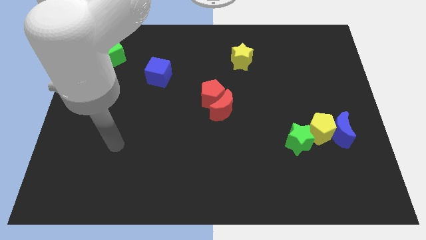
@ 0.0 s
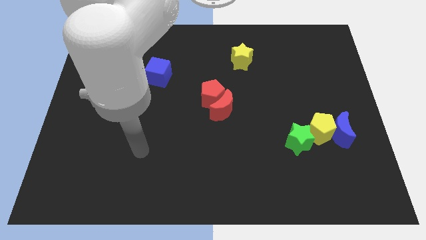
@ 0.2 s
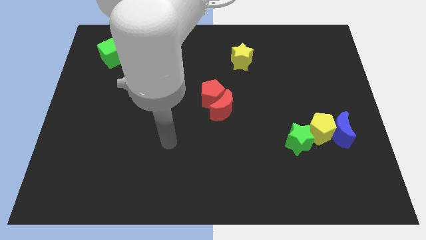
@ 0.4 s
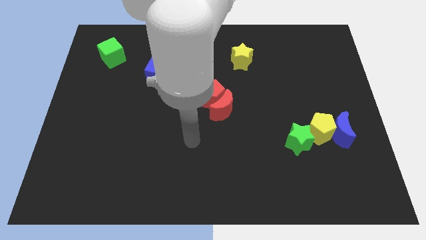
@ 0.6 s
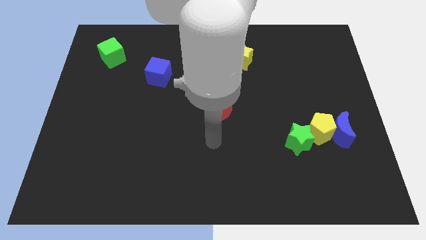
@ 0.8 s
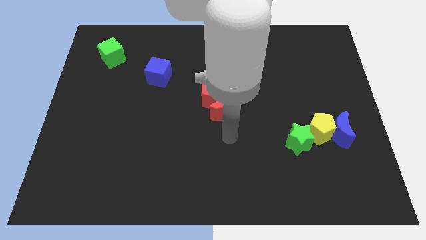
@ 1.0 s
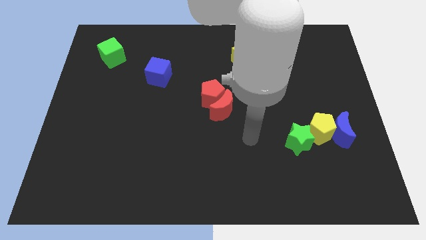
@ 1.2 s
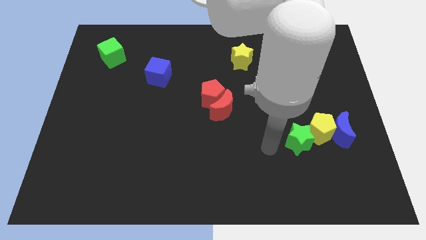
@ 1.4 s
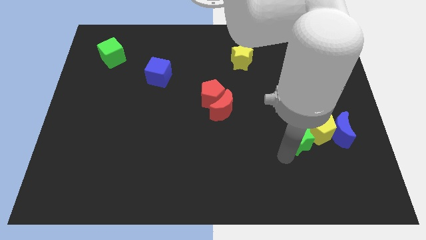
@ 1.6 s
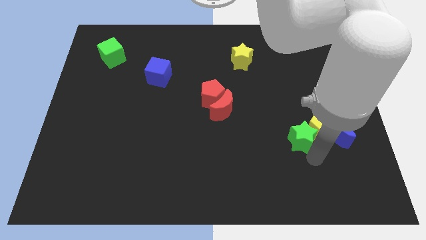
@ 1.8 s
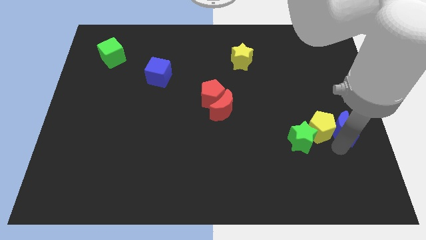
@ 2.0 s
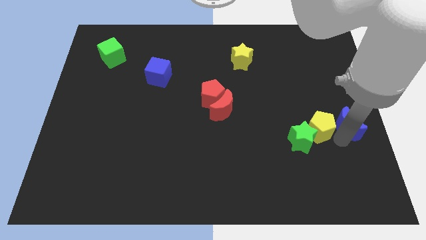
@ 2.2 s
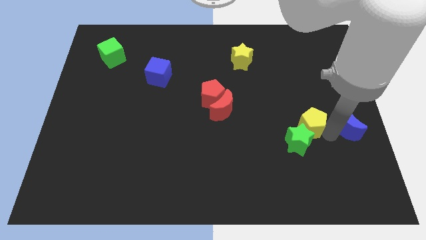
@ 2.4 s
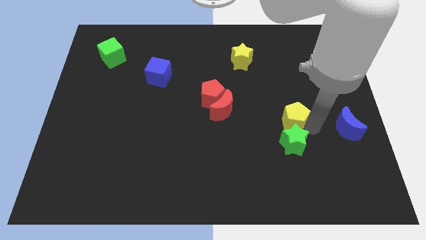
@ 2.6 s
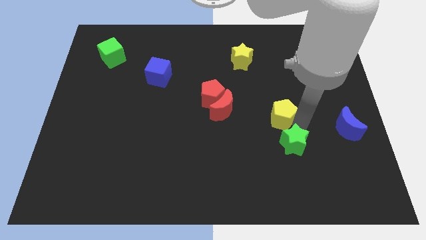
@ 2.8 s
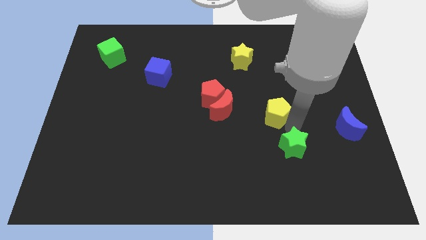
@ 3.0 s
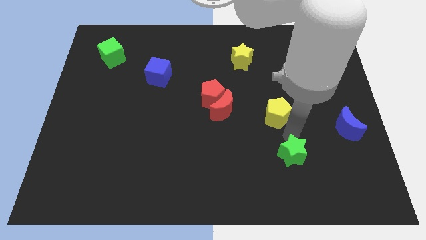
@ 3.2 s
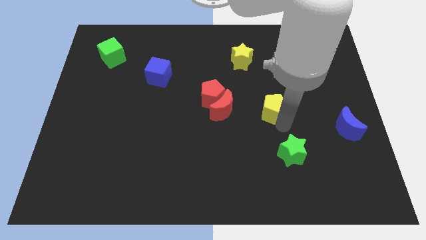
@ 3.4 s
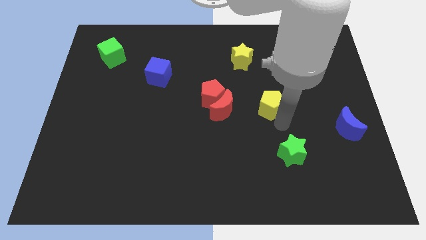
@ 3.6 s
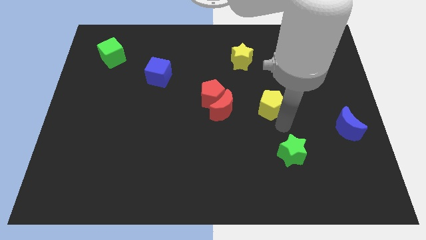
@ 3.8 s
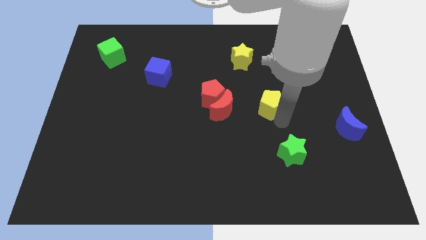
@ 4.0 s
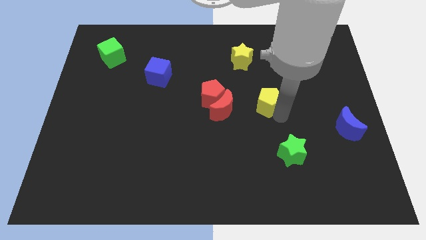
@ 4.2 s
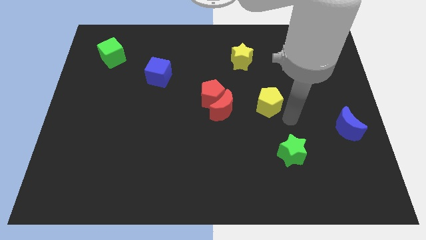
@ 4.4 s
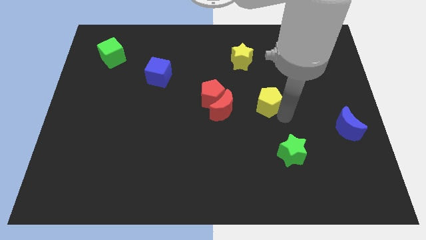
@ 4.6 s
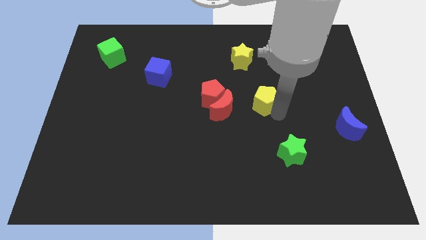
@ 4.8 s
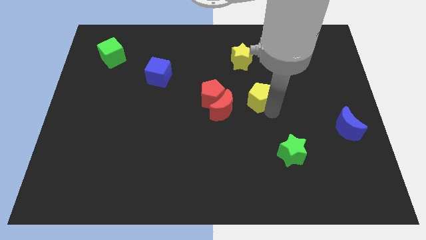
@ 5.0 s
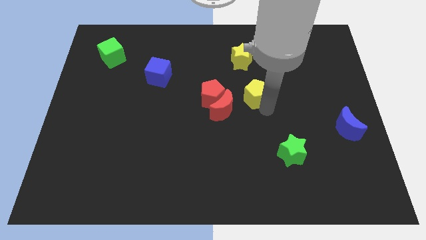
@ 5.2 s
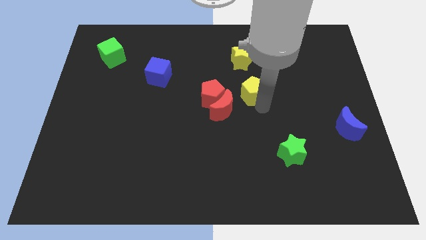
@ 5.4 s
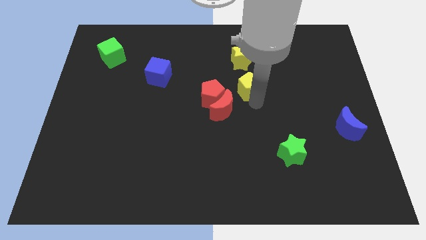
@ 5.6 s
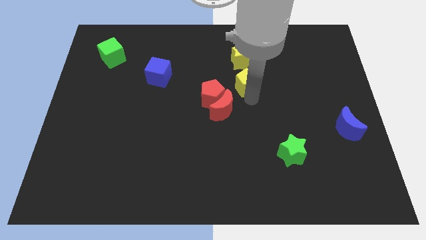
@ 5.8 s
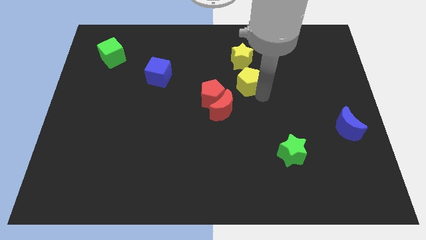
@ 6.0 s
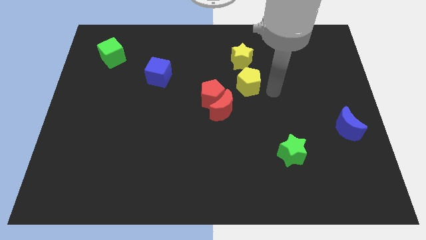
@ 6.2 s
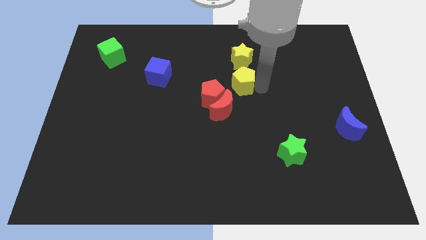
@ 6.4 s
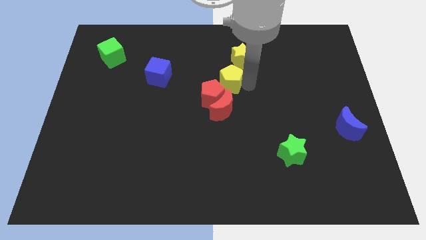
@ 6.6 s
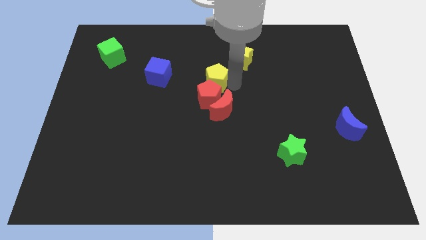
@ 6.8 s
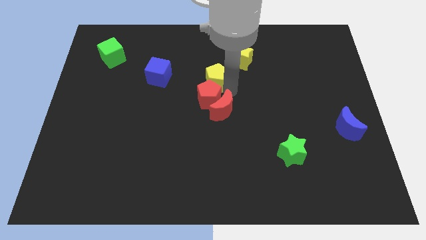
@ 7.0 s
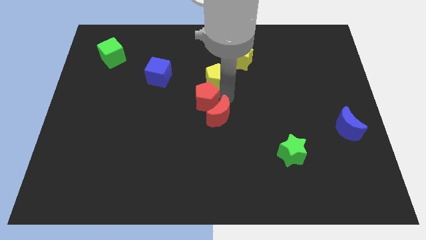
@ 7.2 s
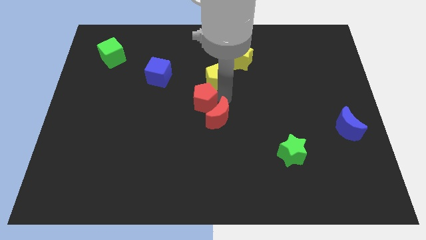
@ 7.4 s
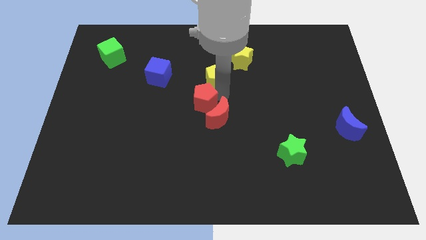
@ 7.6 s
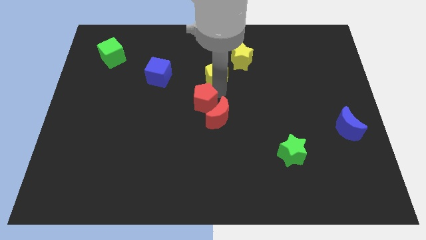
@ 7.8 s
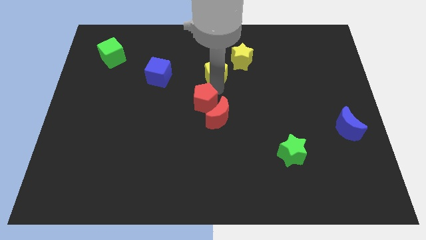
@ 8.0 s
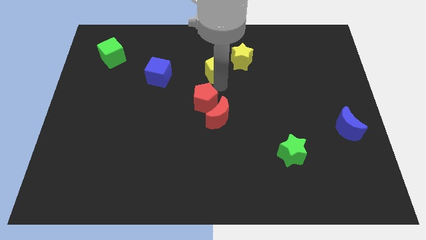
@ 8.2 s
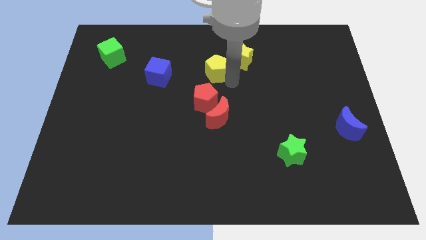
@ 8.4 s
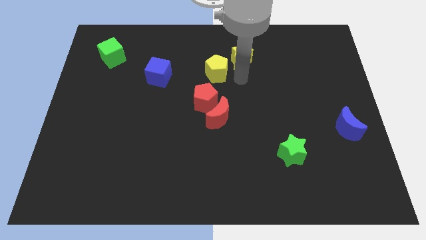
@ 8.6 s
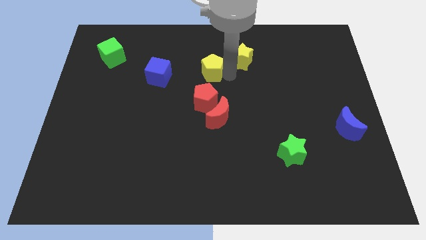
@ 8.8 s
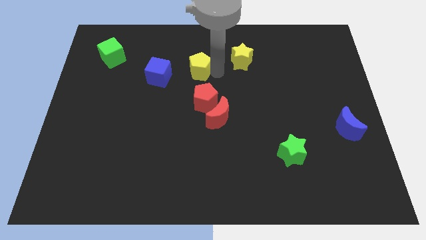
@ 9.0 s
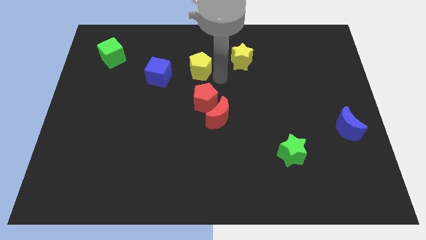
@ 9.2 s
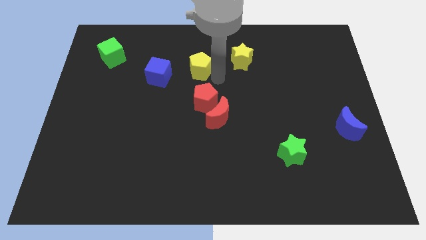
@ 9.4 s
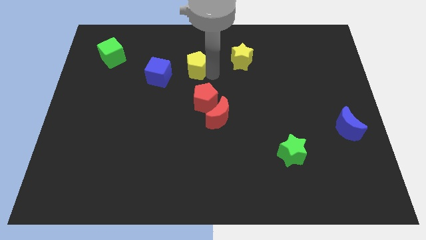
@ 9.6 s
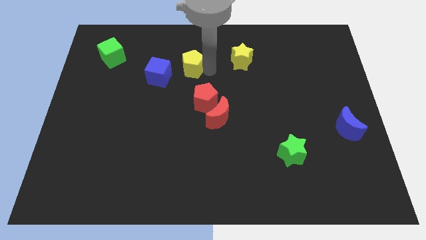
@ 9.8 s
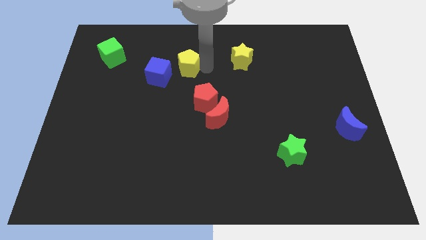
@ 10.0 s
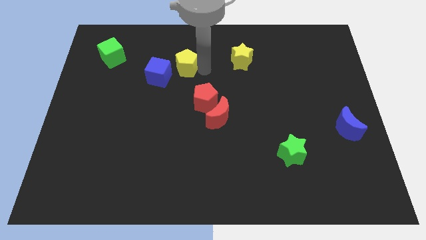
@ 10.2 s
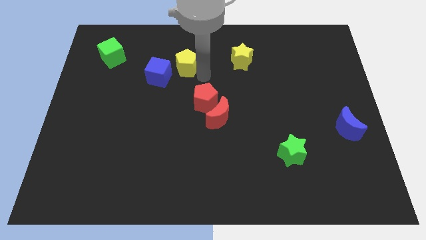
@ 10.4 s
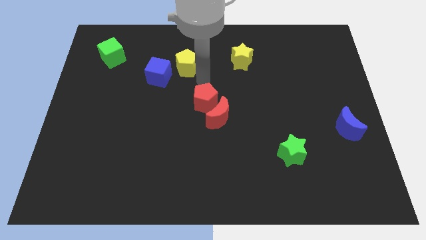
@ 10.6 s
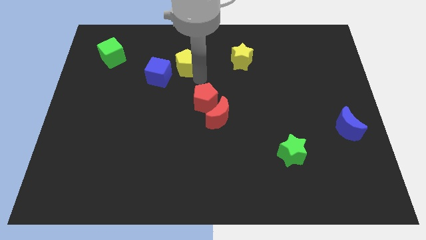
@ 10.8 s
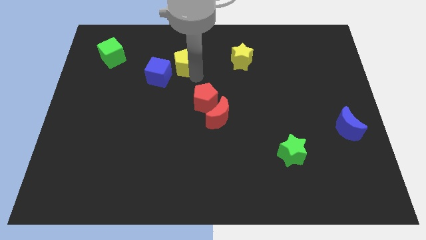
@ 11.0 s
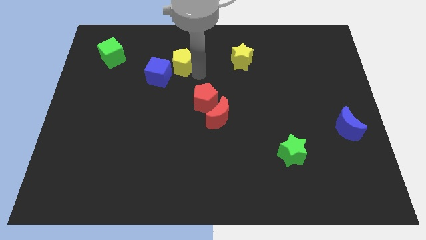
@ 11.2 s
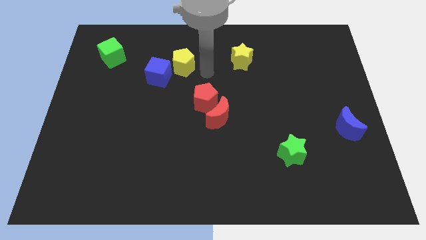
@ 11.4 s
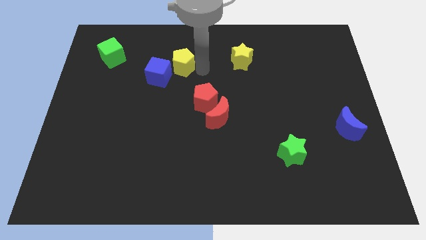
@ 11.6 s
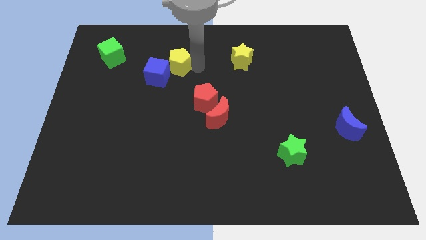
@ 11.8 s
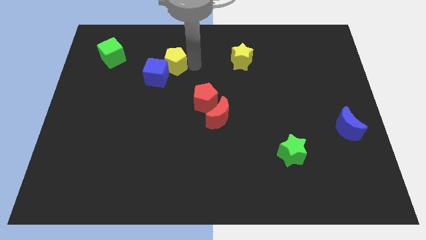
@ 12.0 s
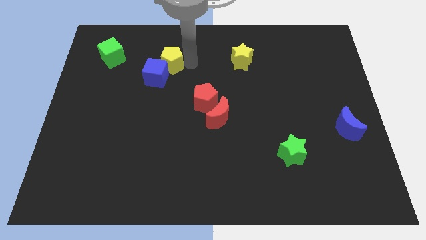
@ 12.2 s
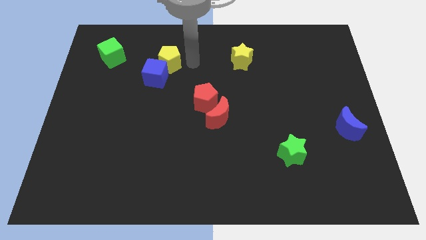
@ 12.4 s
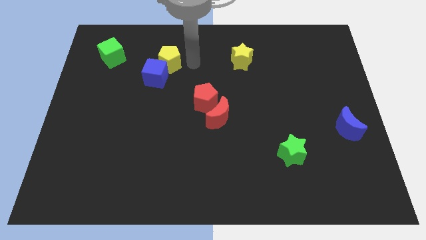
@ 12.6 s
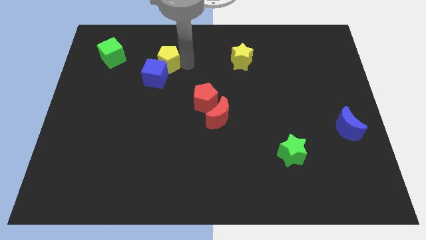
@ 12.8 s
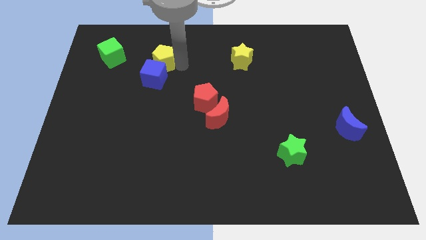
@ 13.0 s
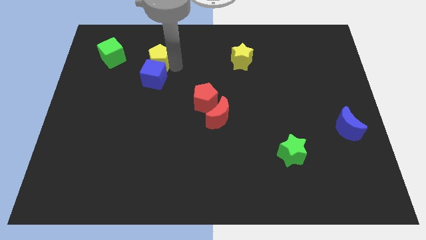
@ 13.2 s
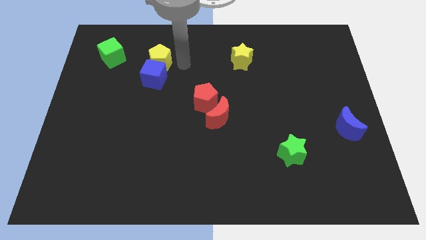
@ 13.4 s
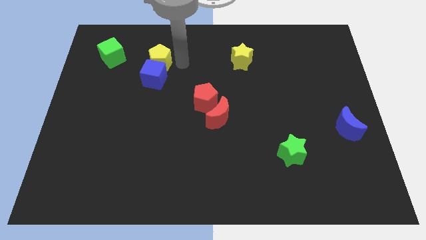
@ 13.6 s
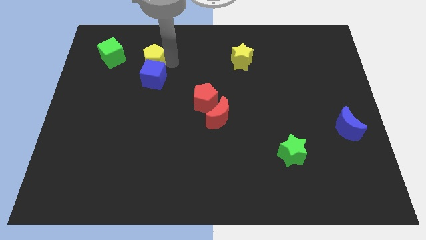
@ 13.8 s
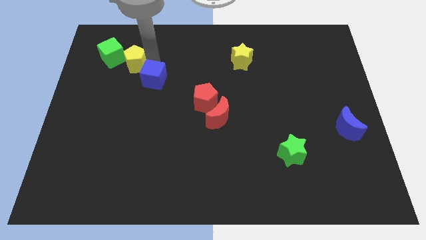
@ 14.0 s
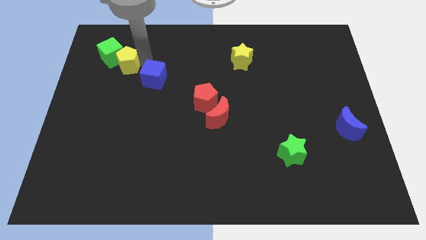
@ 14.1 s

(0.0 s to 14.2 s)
slide the yellow pentagon next to the green cube
